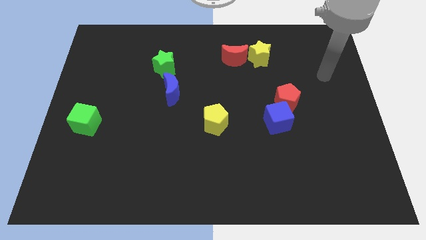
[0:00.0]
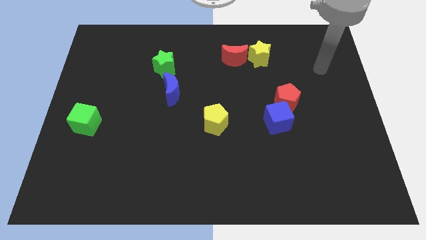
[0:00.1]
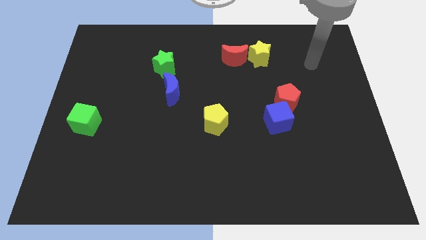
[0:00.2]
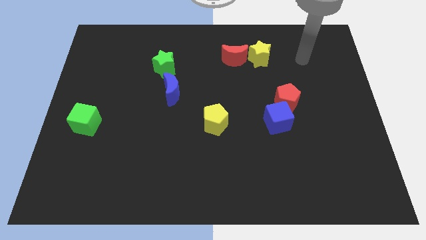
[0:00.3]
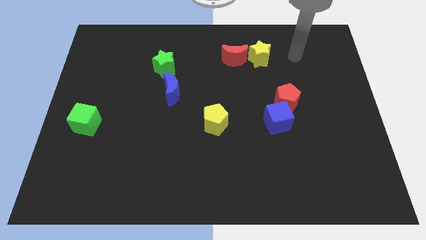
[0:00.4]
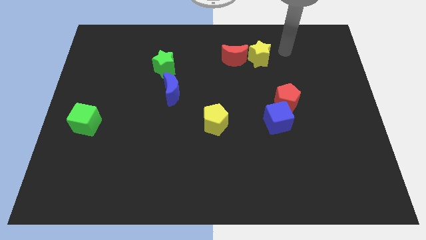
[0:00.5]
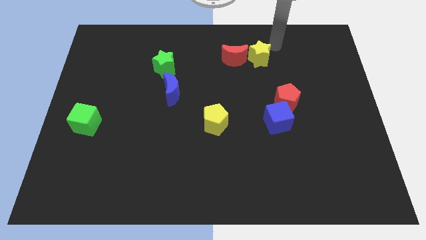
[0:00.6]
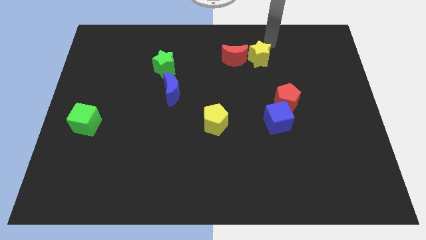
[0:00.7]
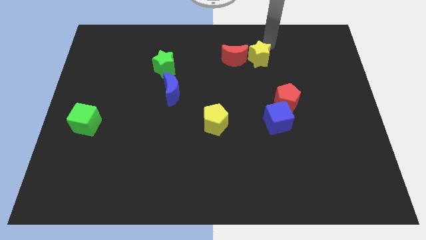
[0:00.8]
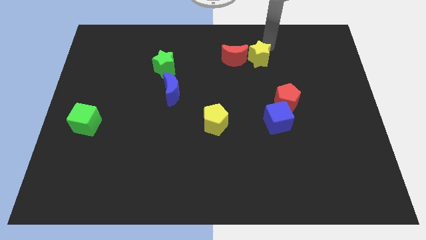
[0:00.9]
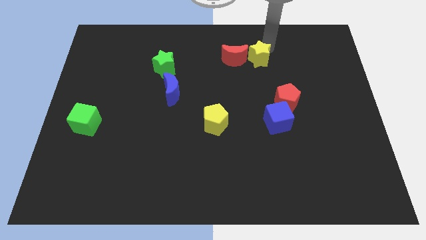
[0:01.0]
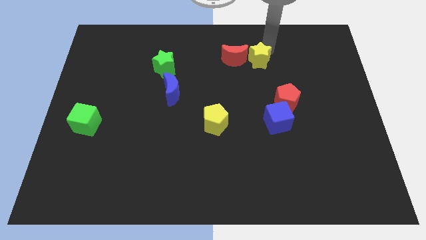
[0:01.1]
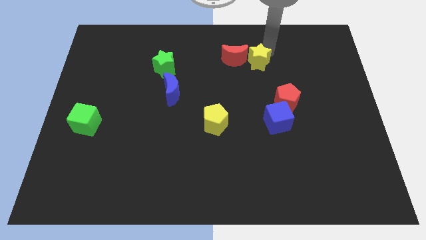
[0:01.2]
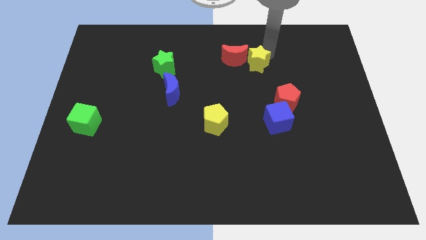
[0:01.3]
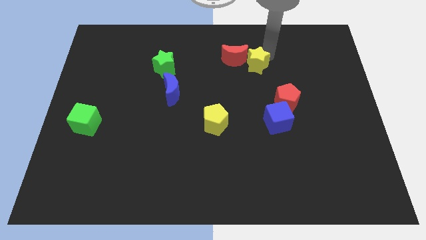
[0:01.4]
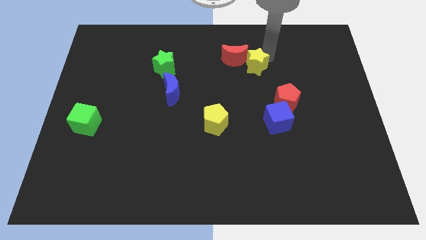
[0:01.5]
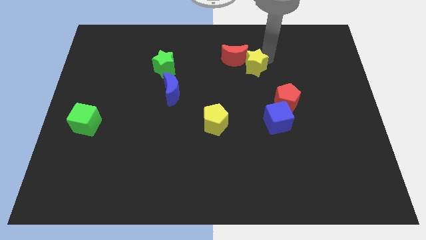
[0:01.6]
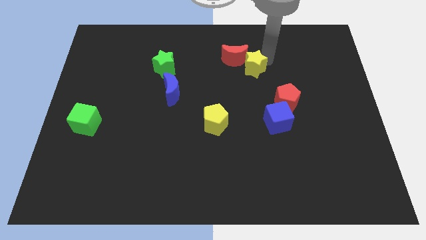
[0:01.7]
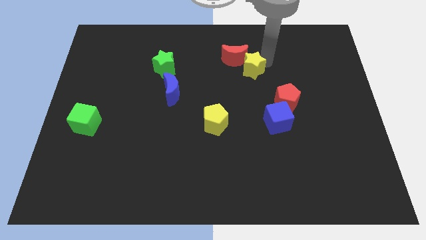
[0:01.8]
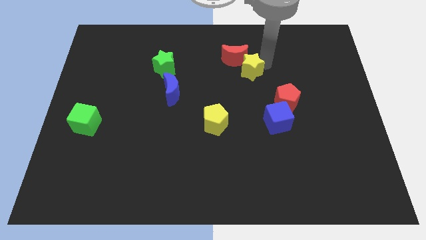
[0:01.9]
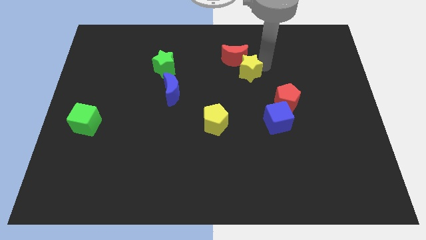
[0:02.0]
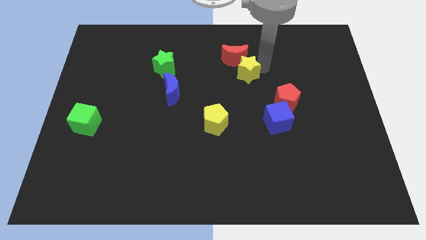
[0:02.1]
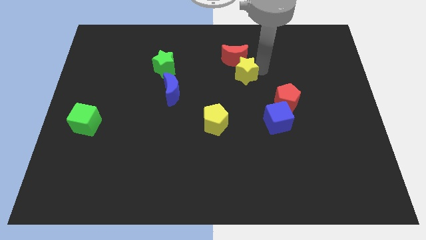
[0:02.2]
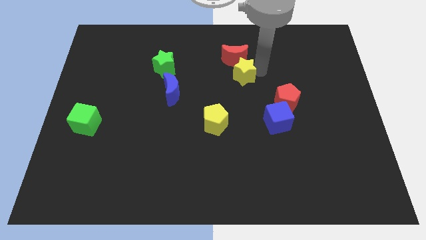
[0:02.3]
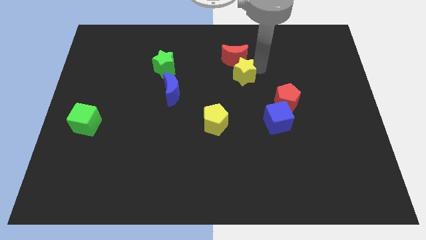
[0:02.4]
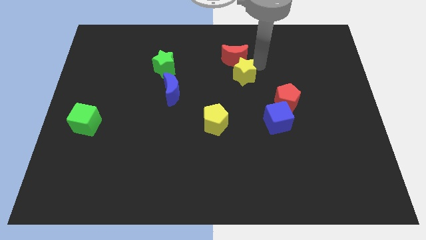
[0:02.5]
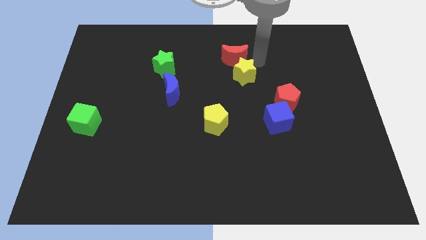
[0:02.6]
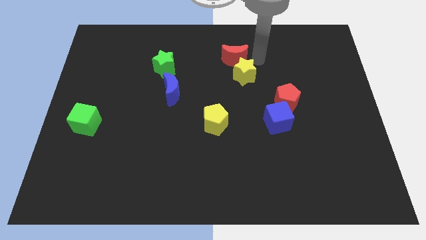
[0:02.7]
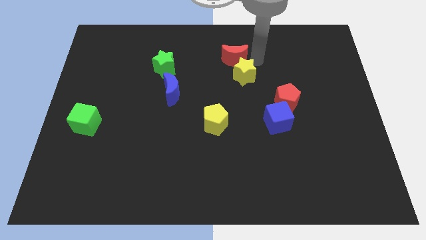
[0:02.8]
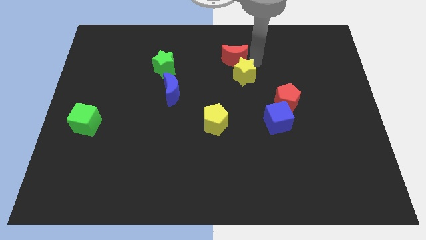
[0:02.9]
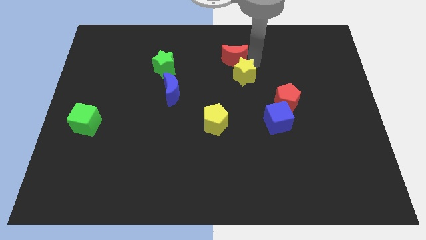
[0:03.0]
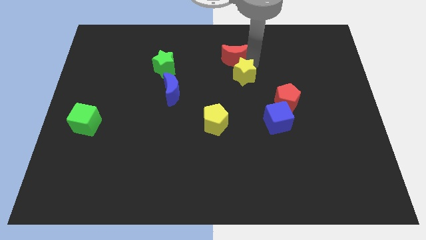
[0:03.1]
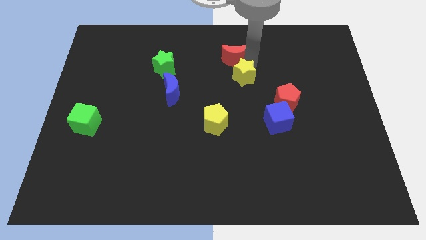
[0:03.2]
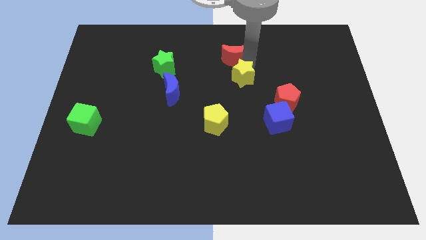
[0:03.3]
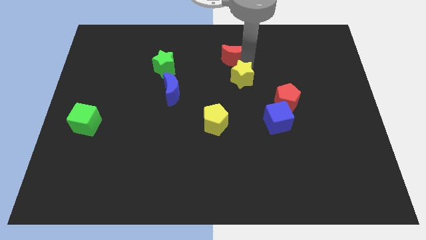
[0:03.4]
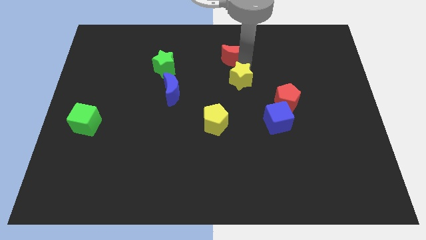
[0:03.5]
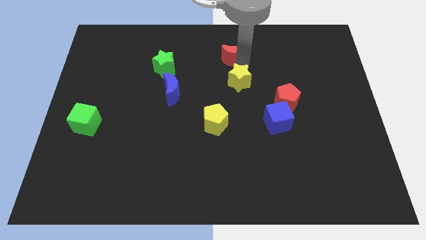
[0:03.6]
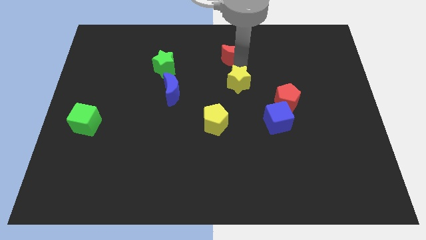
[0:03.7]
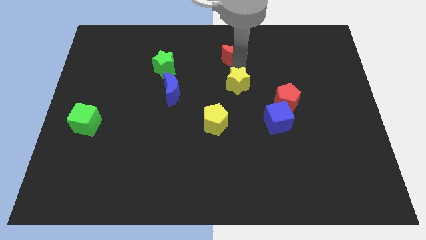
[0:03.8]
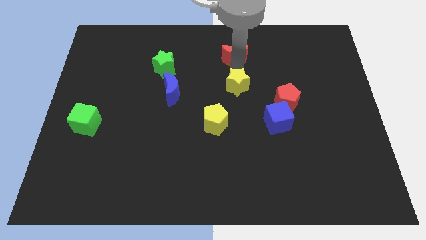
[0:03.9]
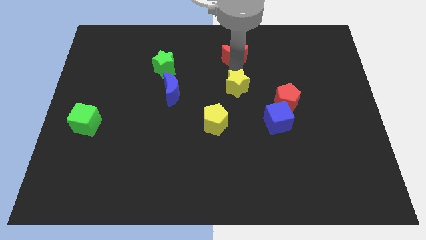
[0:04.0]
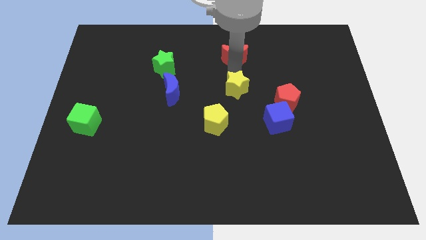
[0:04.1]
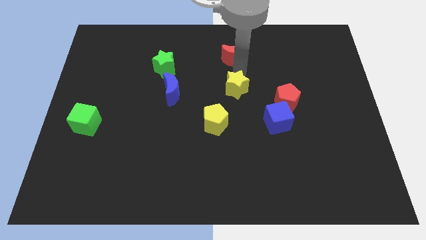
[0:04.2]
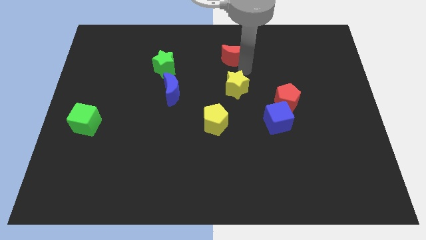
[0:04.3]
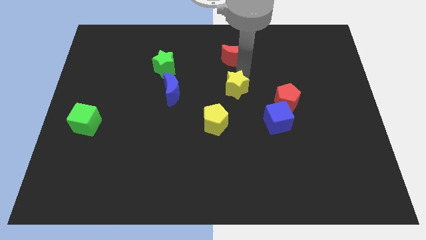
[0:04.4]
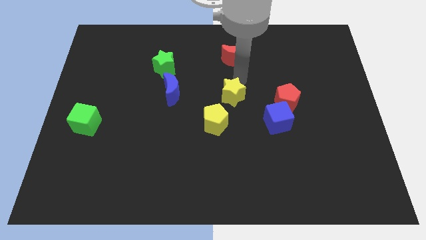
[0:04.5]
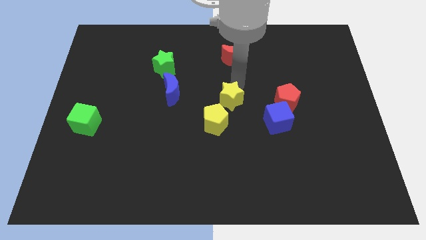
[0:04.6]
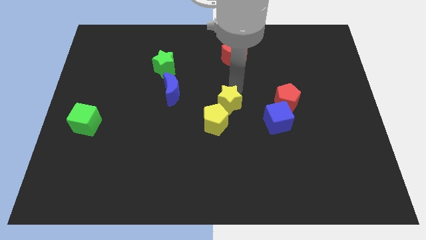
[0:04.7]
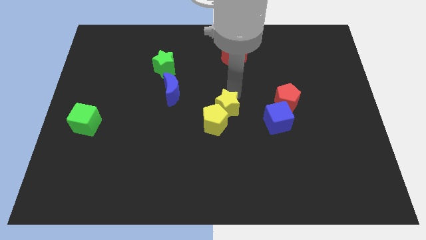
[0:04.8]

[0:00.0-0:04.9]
move the yellow star towards the yellow pentagon

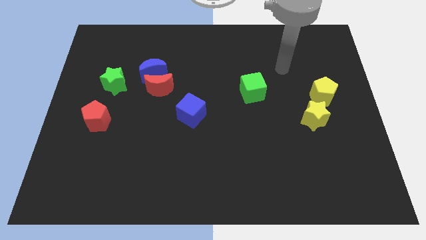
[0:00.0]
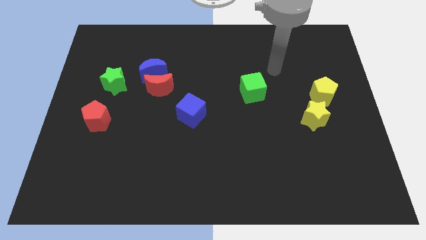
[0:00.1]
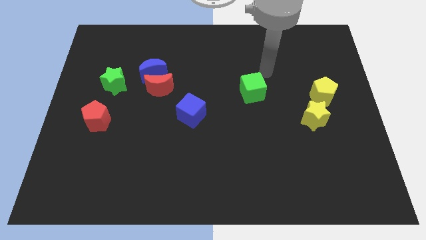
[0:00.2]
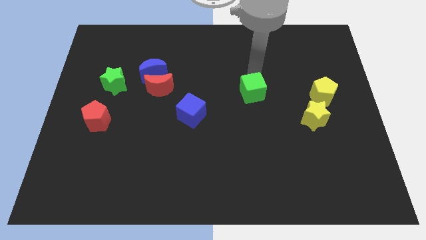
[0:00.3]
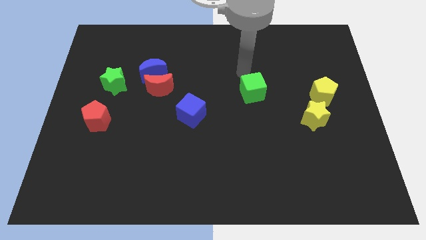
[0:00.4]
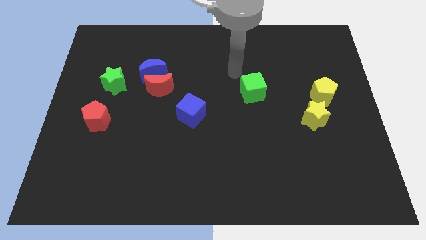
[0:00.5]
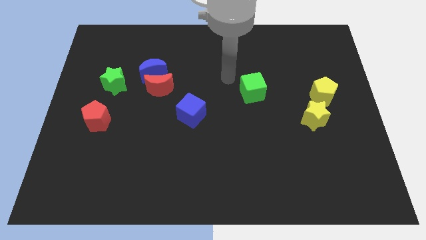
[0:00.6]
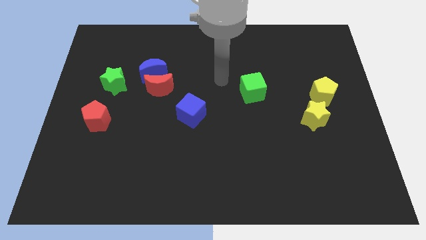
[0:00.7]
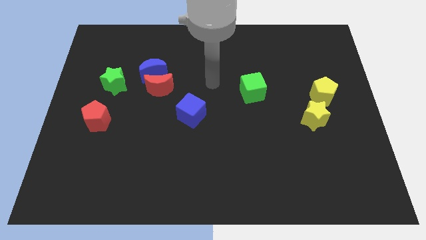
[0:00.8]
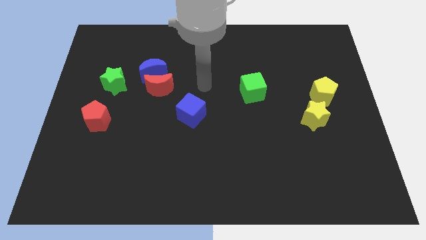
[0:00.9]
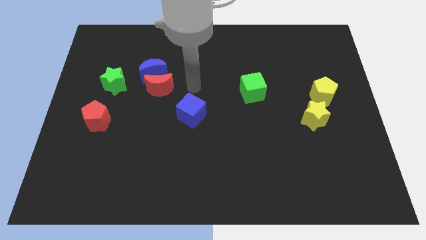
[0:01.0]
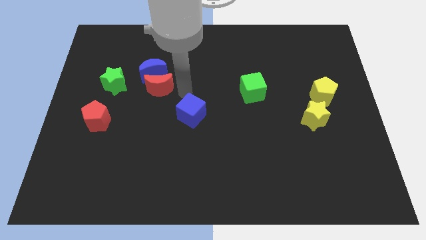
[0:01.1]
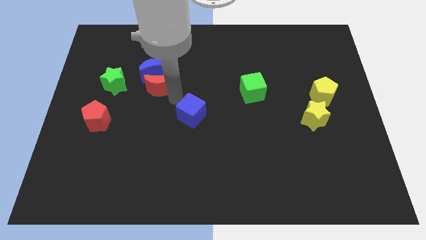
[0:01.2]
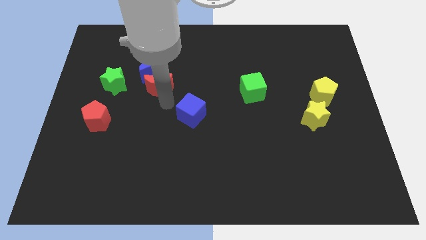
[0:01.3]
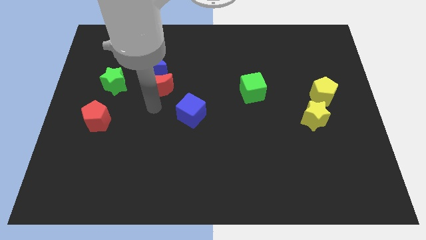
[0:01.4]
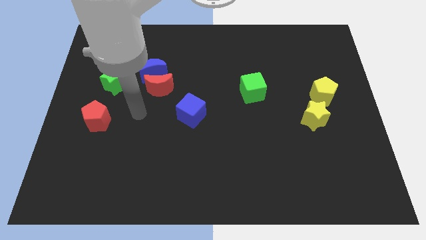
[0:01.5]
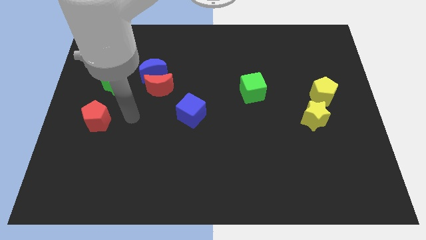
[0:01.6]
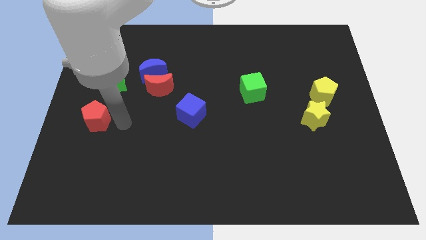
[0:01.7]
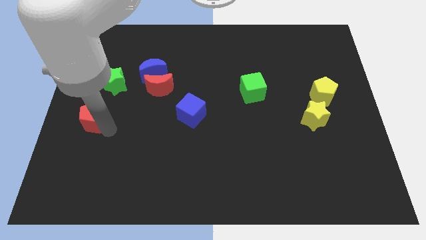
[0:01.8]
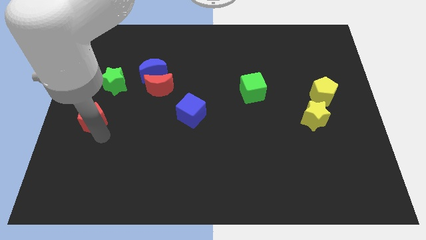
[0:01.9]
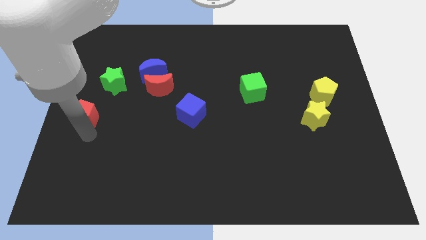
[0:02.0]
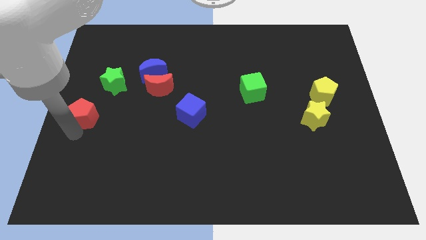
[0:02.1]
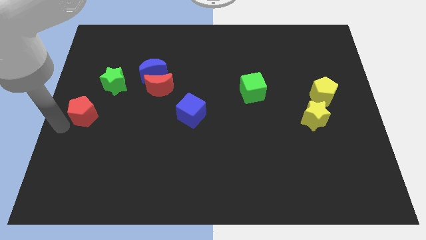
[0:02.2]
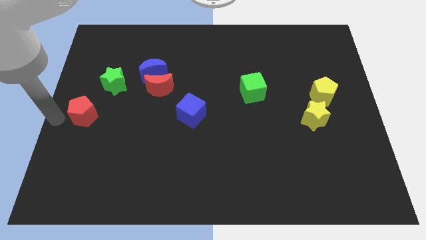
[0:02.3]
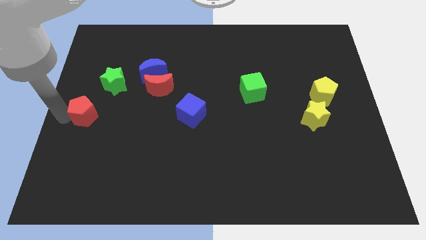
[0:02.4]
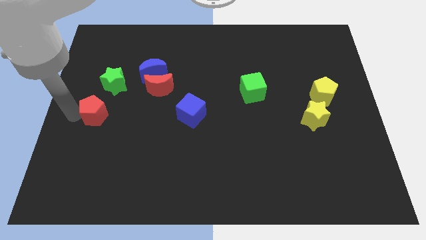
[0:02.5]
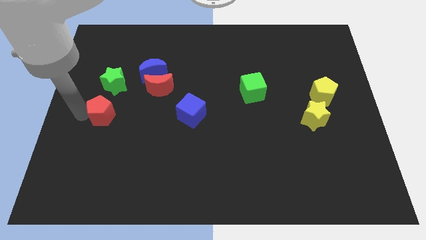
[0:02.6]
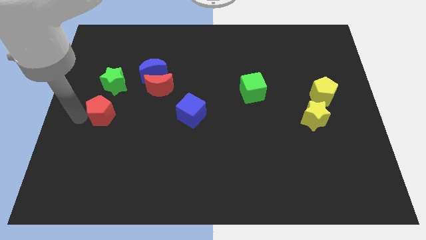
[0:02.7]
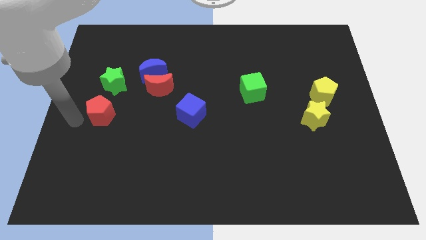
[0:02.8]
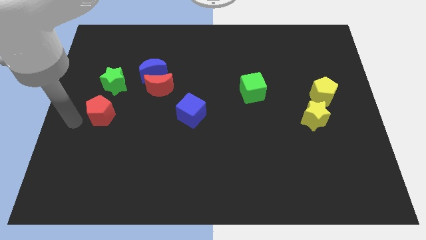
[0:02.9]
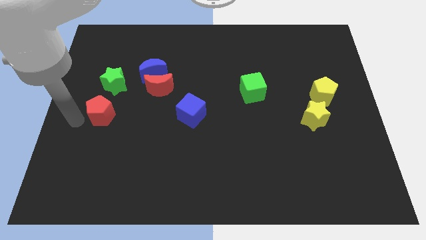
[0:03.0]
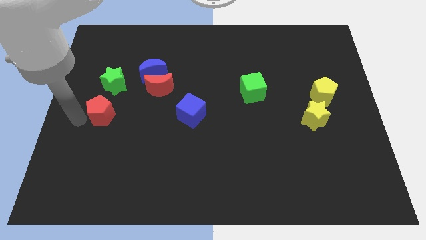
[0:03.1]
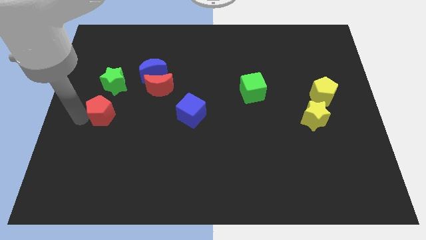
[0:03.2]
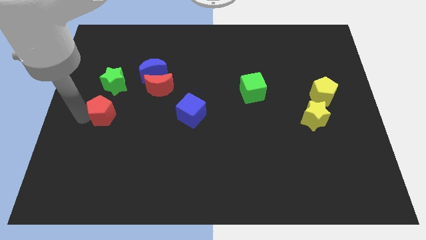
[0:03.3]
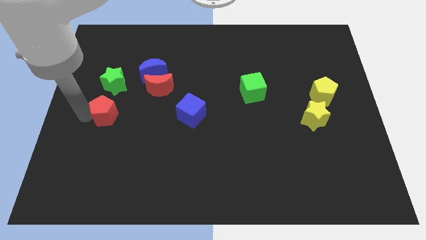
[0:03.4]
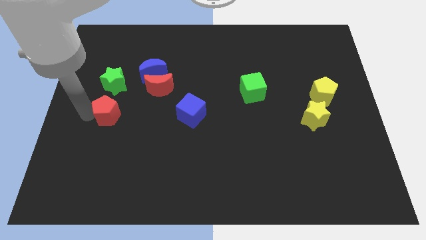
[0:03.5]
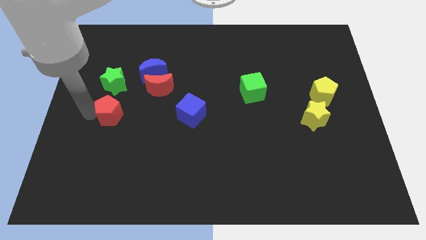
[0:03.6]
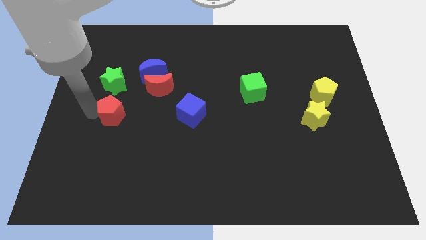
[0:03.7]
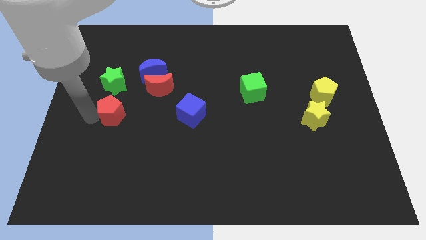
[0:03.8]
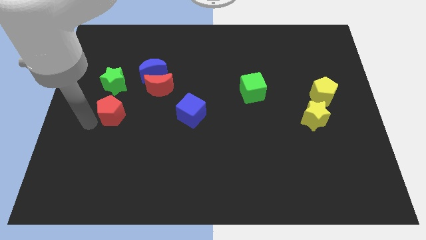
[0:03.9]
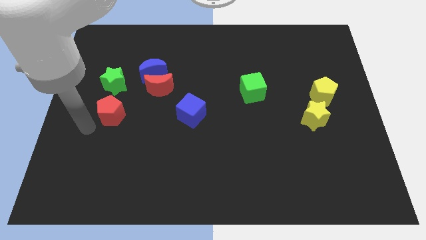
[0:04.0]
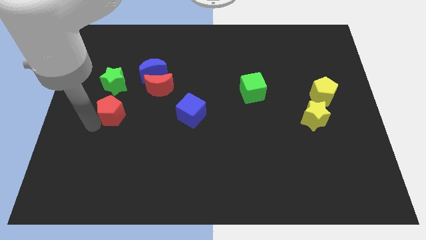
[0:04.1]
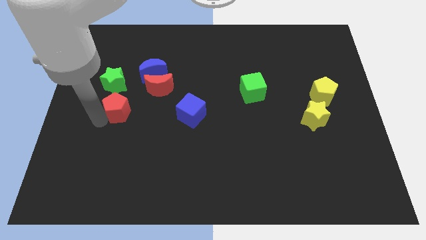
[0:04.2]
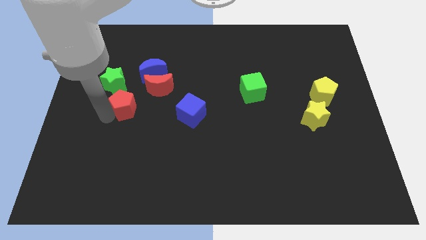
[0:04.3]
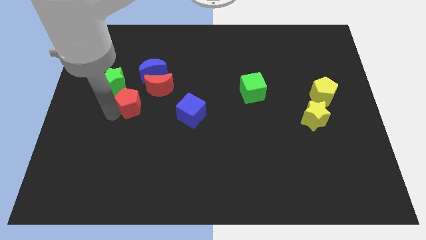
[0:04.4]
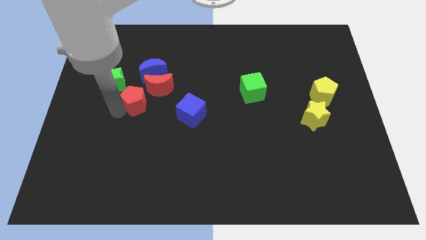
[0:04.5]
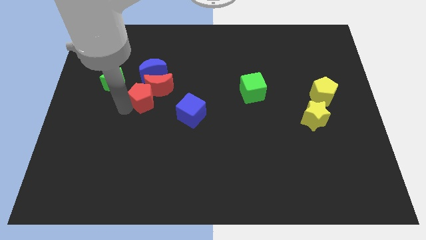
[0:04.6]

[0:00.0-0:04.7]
push the red pentagon next to the red moon
